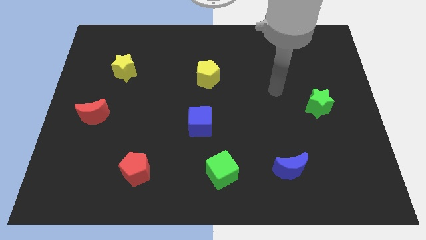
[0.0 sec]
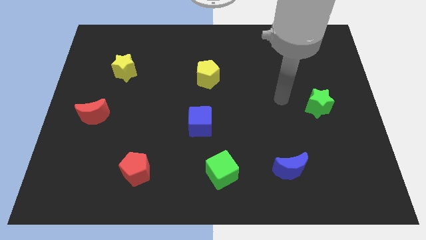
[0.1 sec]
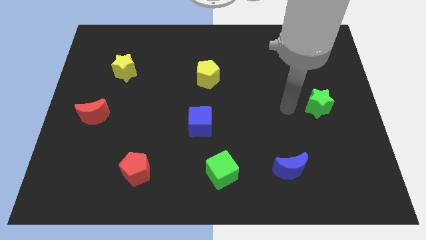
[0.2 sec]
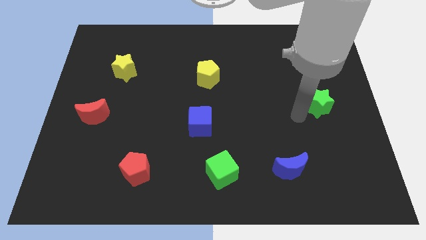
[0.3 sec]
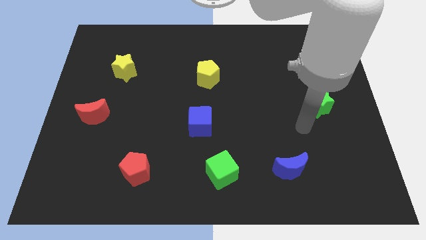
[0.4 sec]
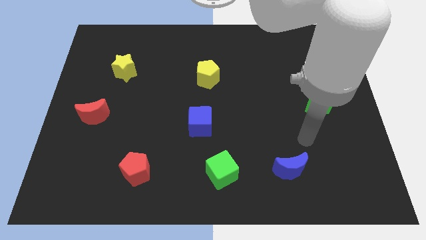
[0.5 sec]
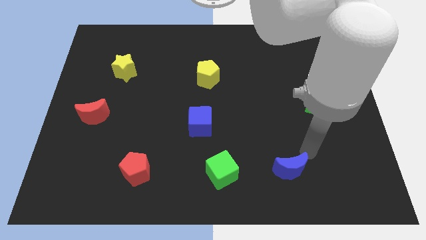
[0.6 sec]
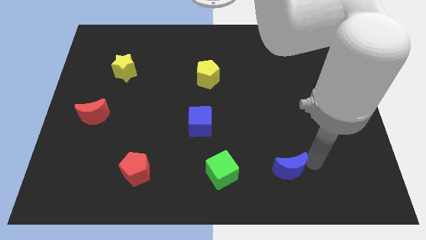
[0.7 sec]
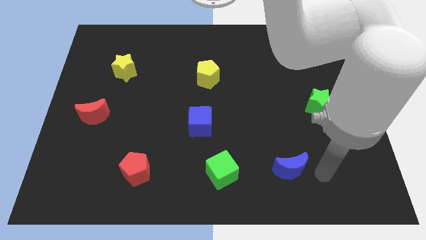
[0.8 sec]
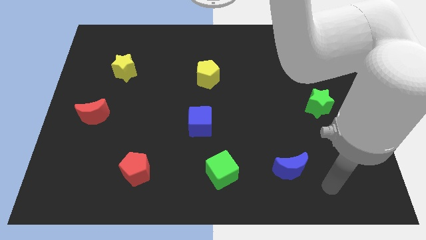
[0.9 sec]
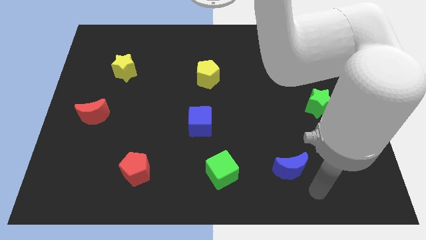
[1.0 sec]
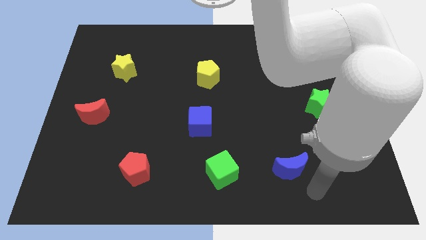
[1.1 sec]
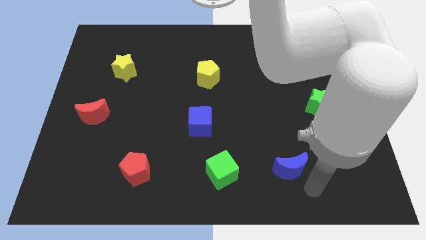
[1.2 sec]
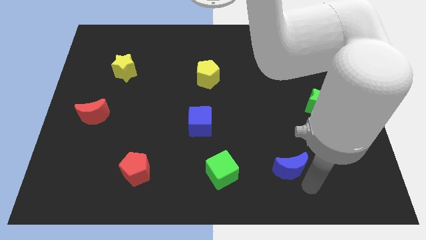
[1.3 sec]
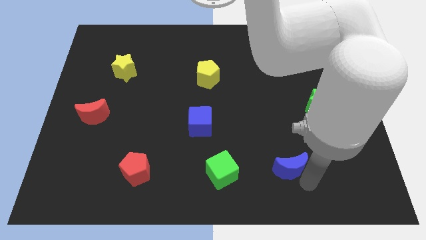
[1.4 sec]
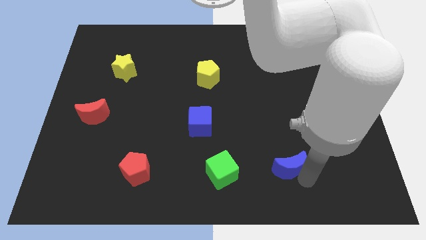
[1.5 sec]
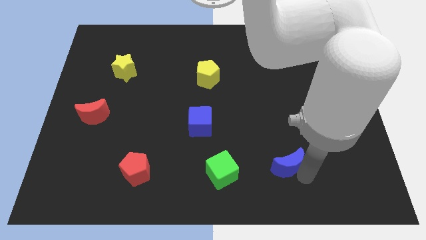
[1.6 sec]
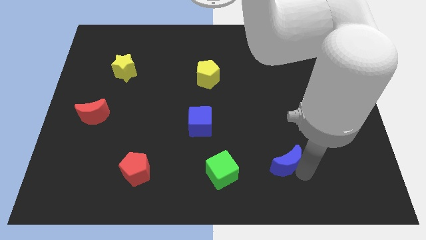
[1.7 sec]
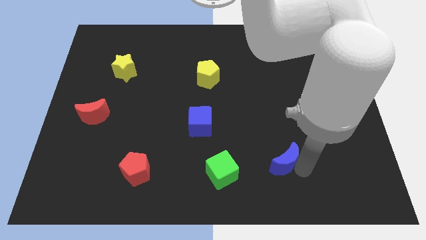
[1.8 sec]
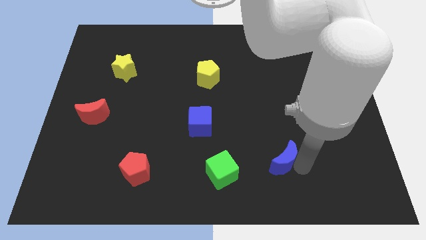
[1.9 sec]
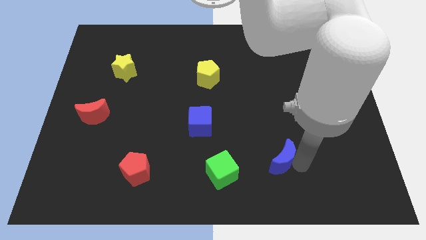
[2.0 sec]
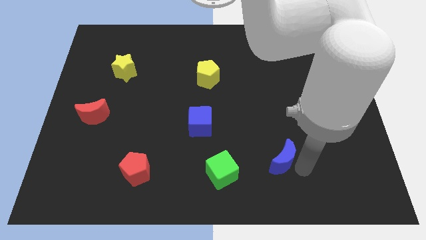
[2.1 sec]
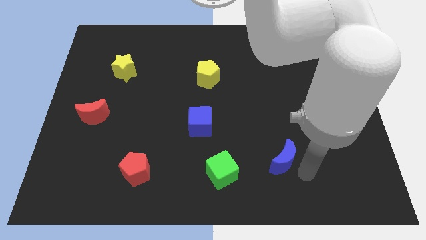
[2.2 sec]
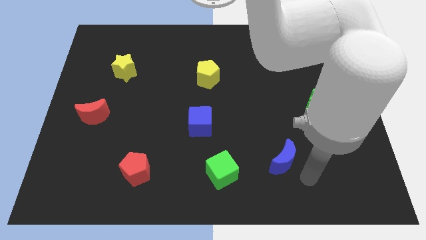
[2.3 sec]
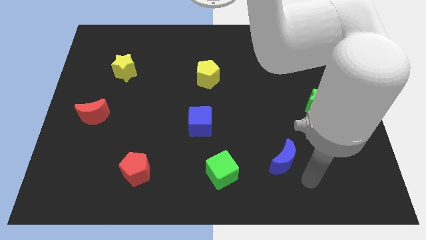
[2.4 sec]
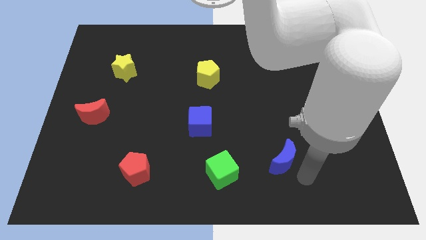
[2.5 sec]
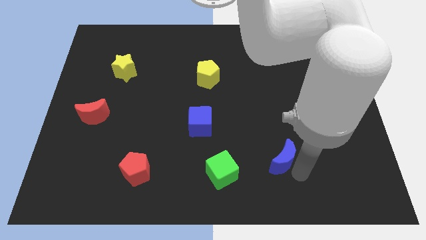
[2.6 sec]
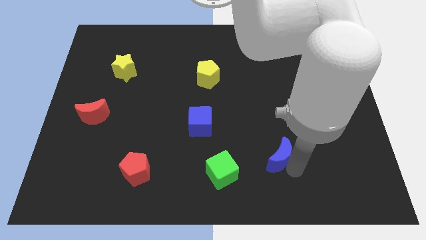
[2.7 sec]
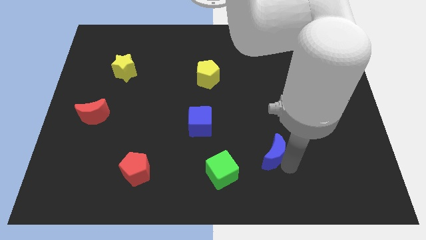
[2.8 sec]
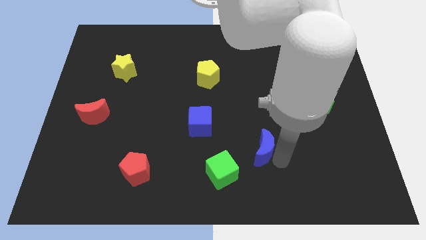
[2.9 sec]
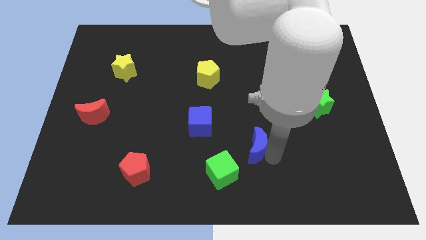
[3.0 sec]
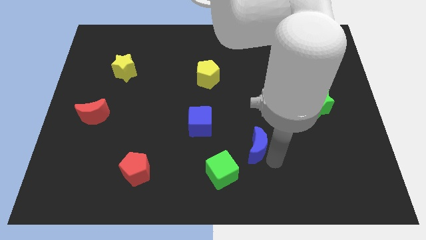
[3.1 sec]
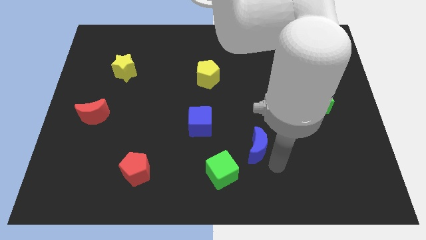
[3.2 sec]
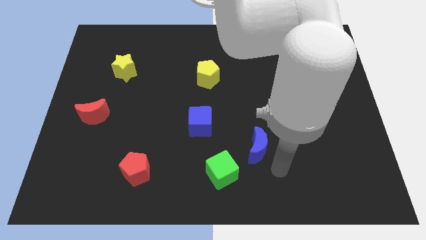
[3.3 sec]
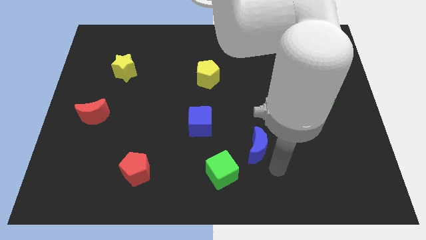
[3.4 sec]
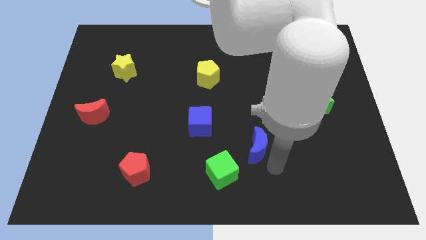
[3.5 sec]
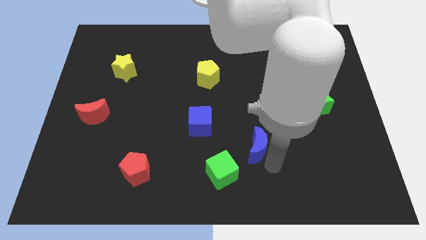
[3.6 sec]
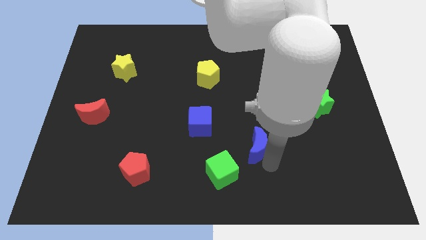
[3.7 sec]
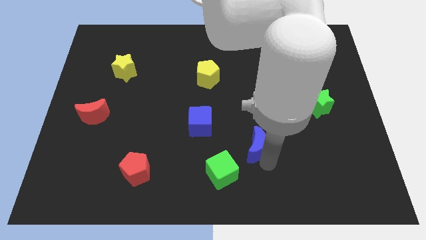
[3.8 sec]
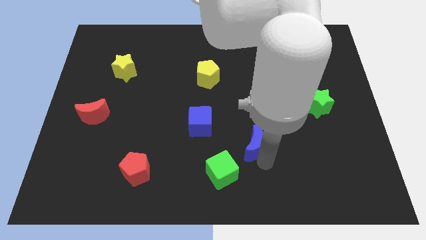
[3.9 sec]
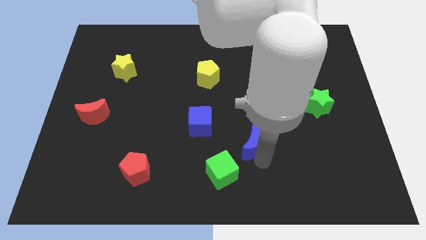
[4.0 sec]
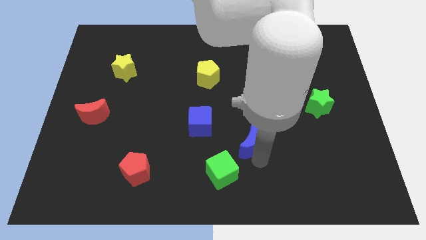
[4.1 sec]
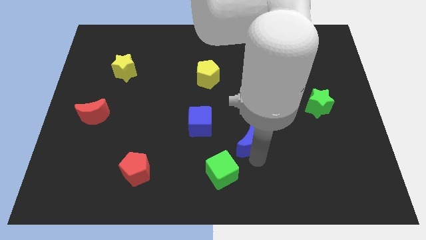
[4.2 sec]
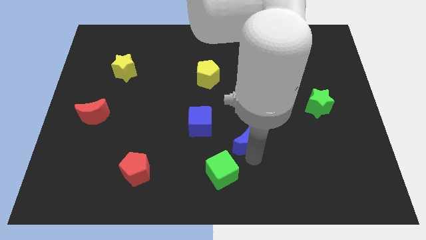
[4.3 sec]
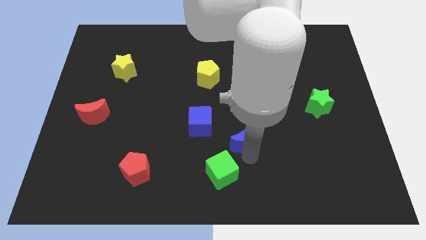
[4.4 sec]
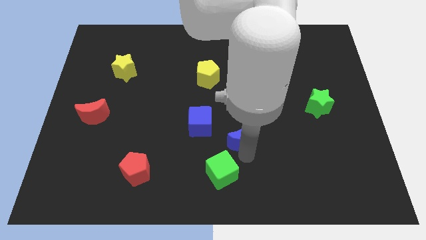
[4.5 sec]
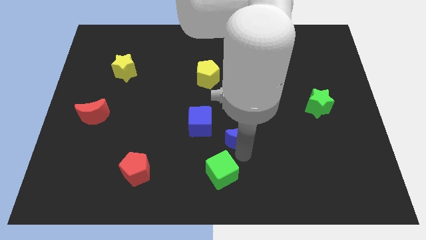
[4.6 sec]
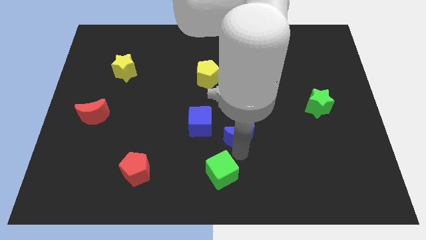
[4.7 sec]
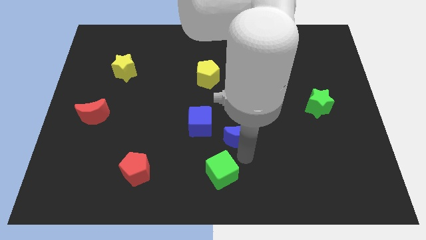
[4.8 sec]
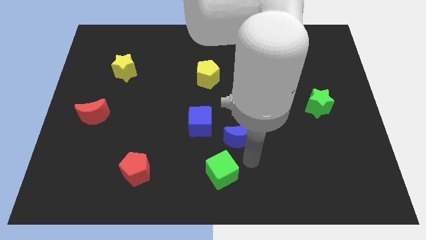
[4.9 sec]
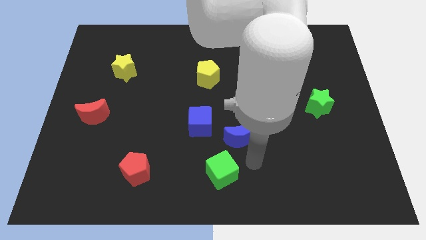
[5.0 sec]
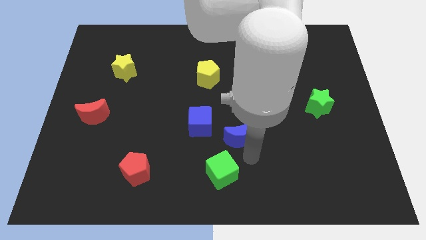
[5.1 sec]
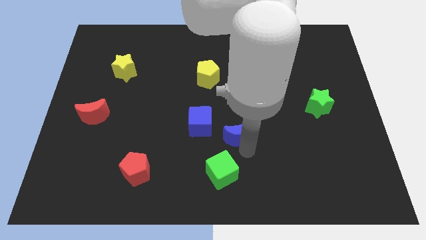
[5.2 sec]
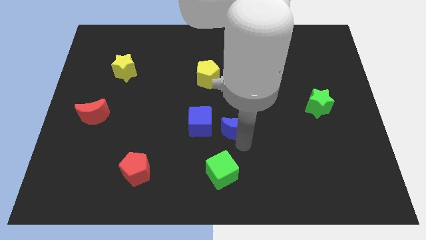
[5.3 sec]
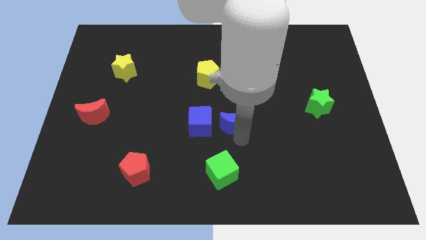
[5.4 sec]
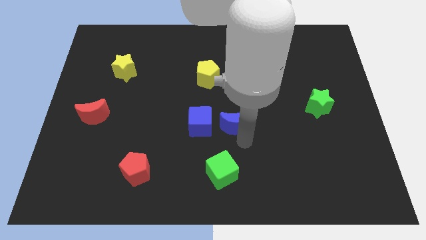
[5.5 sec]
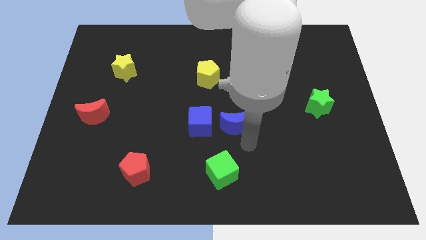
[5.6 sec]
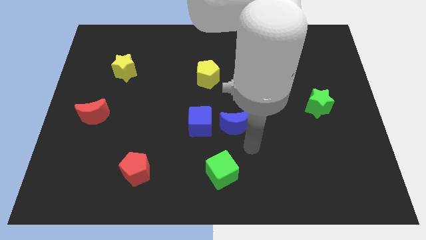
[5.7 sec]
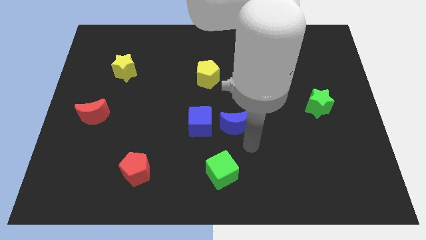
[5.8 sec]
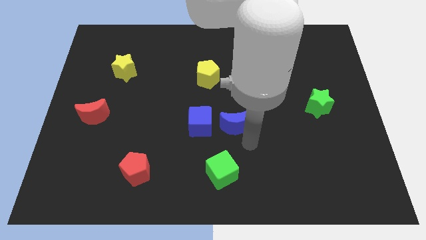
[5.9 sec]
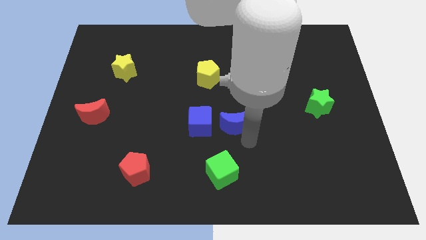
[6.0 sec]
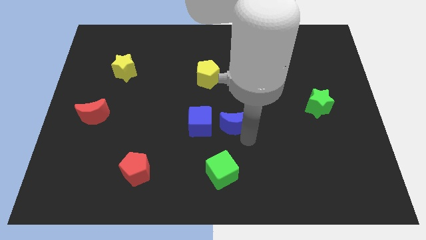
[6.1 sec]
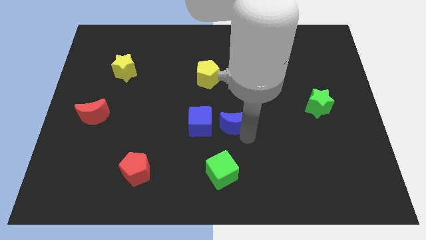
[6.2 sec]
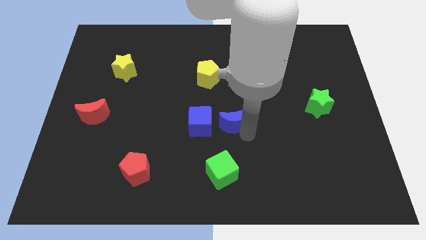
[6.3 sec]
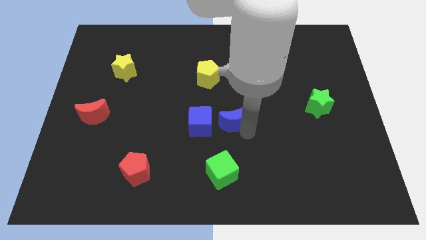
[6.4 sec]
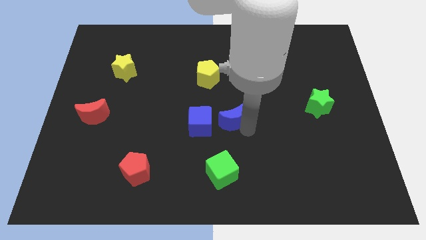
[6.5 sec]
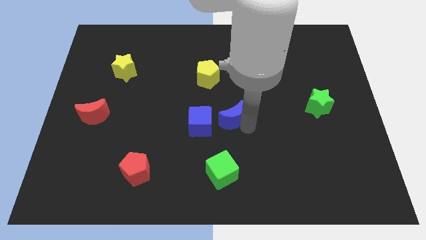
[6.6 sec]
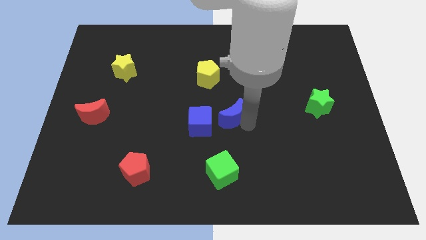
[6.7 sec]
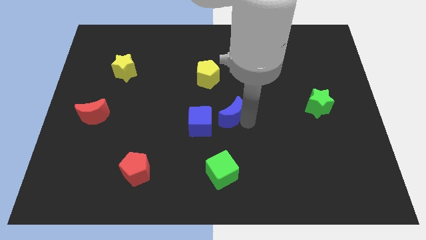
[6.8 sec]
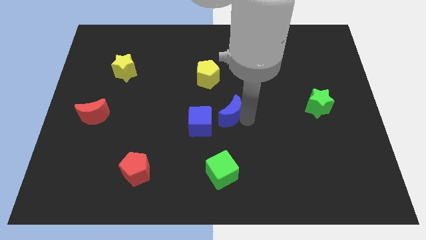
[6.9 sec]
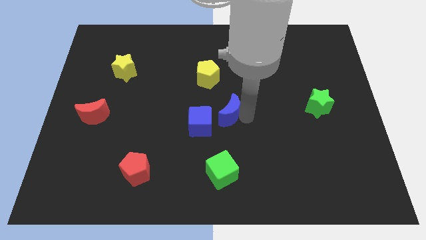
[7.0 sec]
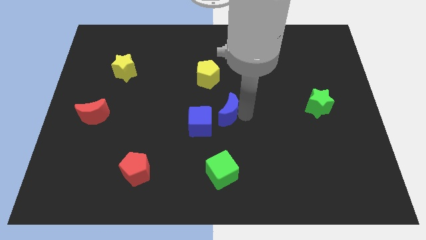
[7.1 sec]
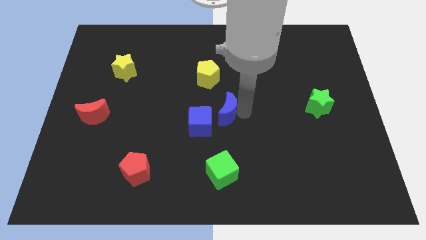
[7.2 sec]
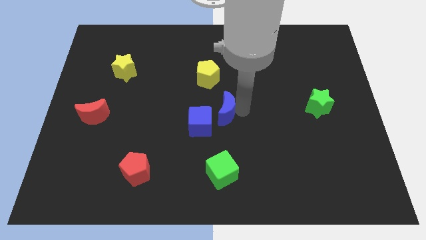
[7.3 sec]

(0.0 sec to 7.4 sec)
push the blue moon to the bottom side of the yellow pentagon
